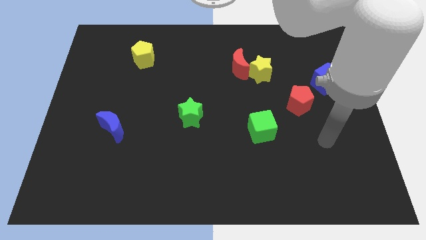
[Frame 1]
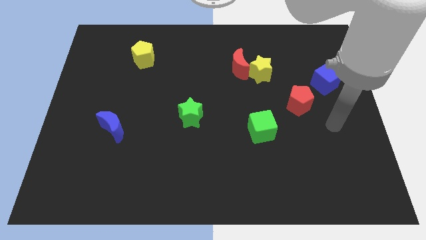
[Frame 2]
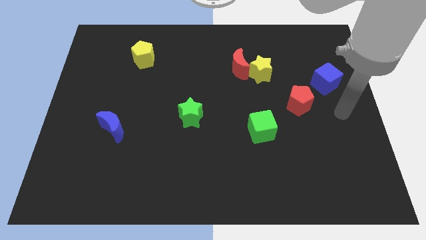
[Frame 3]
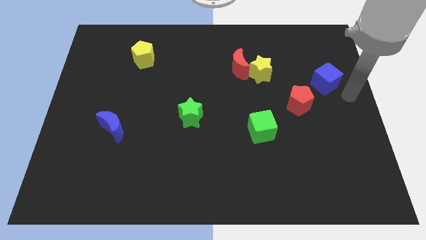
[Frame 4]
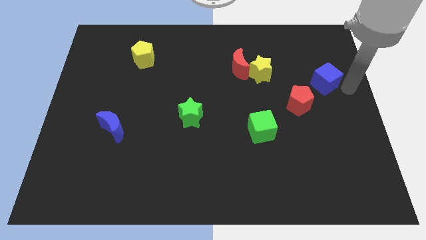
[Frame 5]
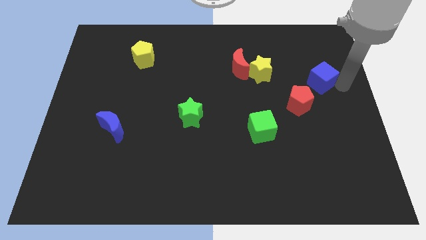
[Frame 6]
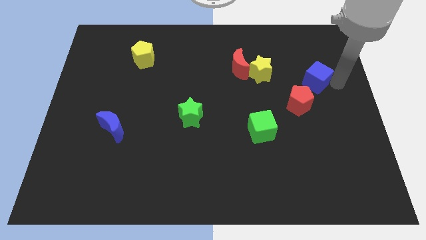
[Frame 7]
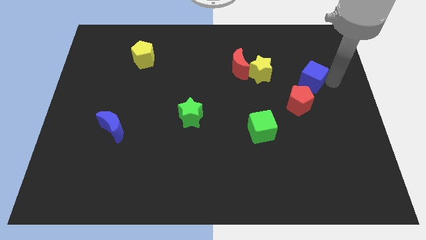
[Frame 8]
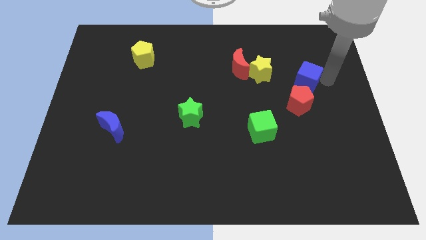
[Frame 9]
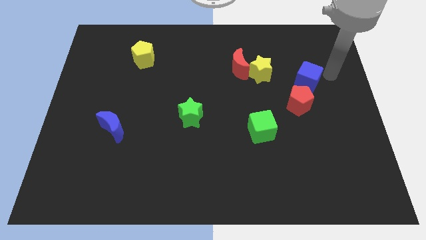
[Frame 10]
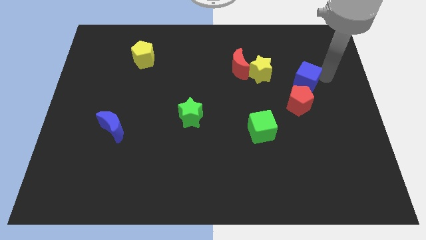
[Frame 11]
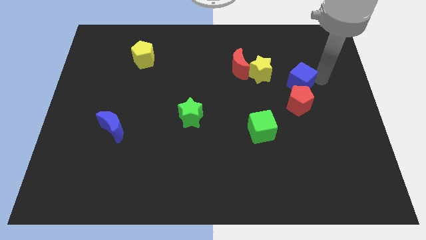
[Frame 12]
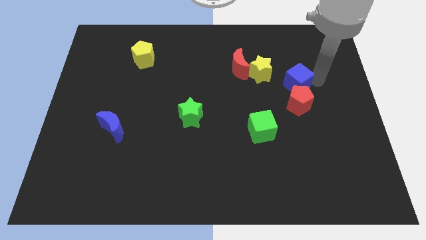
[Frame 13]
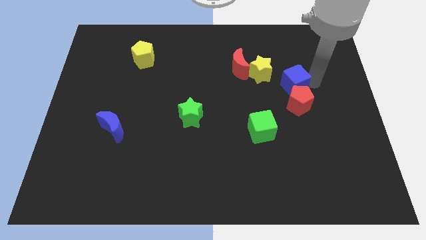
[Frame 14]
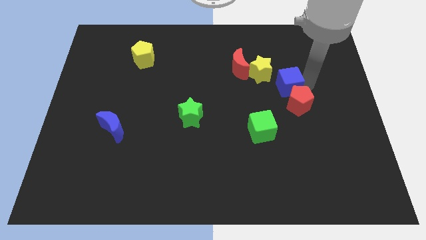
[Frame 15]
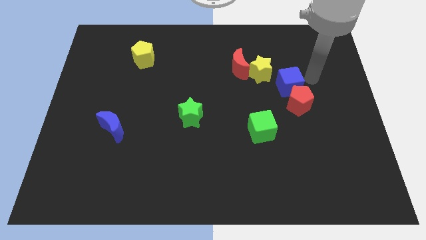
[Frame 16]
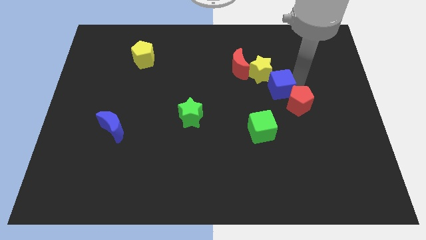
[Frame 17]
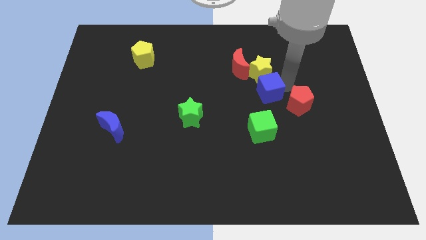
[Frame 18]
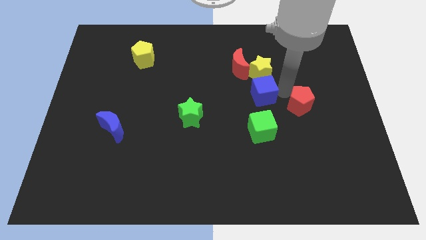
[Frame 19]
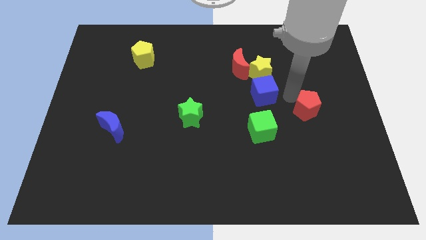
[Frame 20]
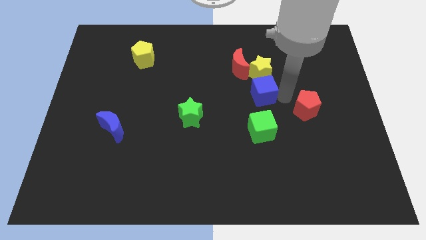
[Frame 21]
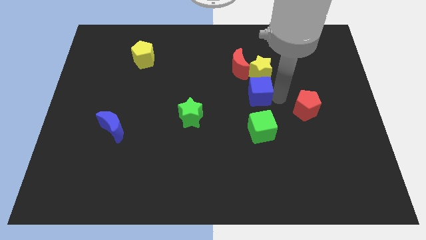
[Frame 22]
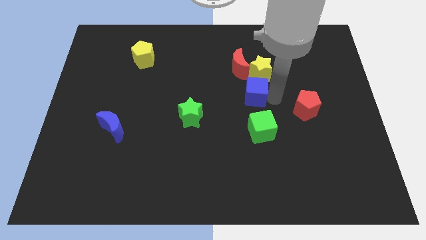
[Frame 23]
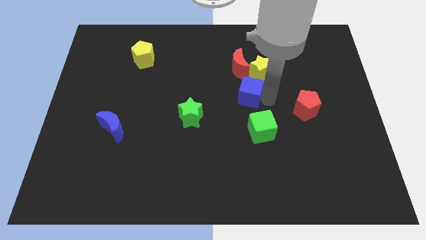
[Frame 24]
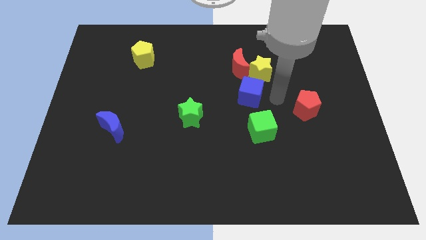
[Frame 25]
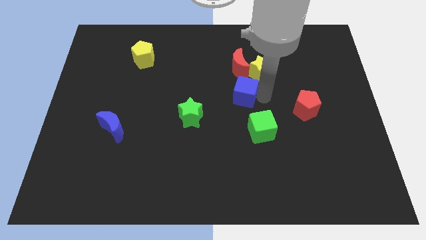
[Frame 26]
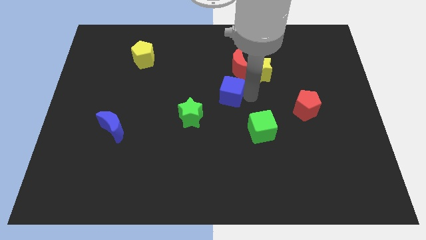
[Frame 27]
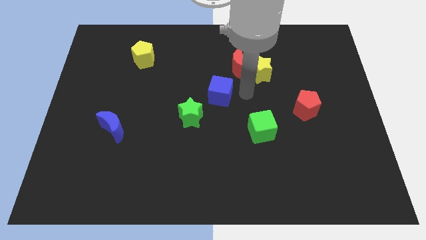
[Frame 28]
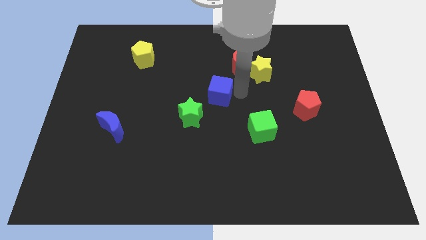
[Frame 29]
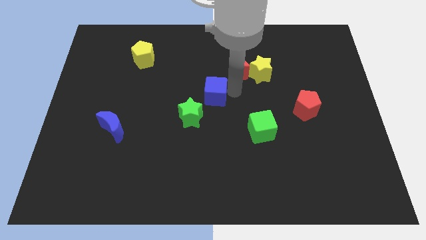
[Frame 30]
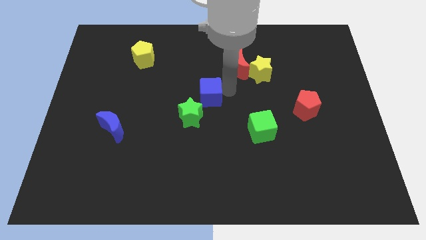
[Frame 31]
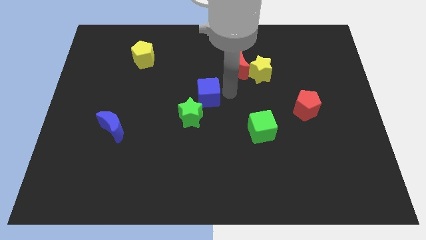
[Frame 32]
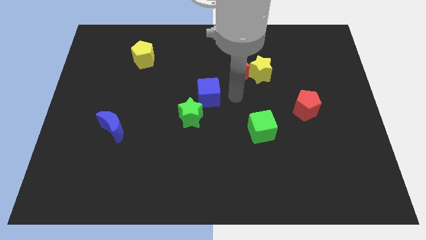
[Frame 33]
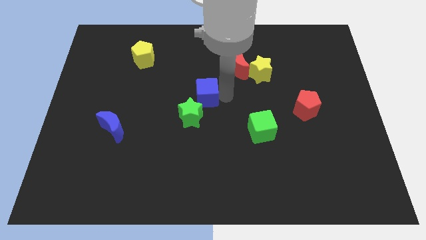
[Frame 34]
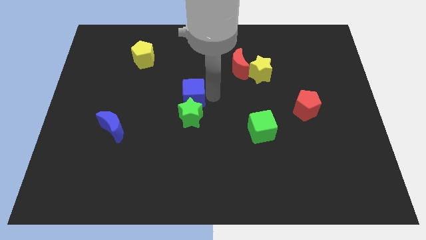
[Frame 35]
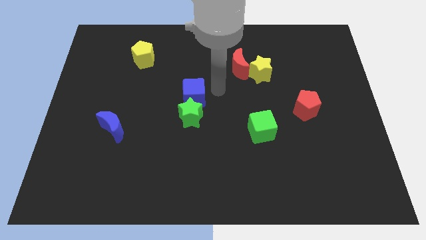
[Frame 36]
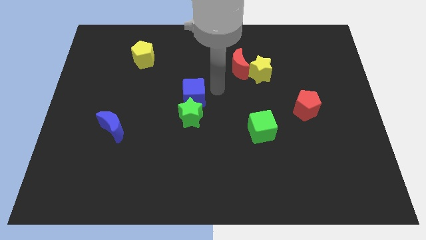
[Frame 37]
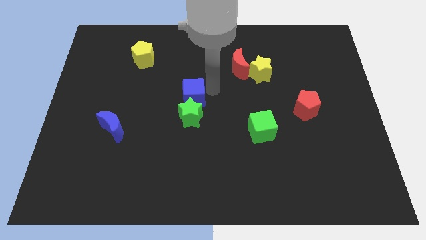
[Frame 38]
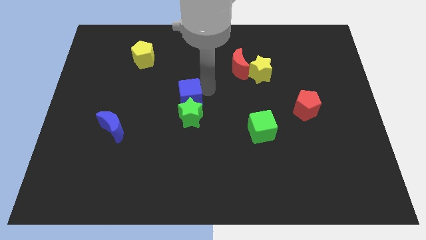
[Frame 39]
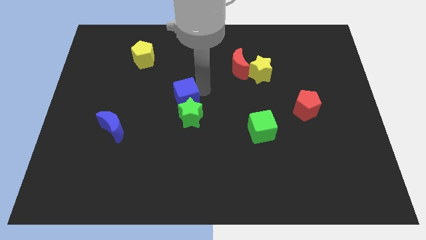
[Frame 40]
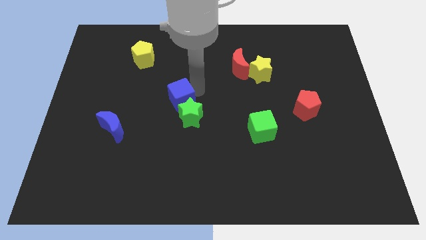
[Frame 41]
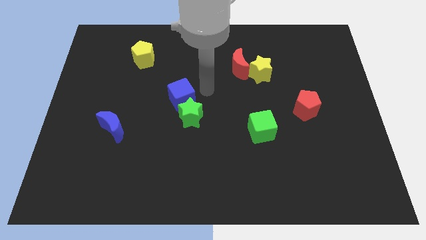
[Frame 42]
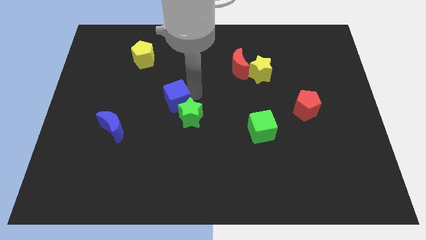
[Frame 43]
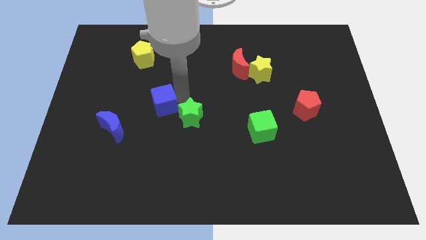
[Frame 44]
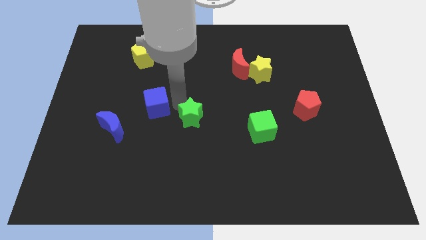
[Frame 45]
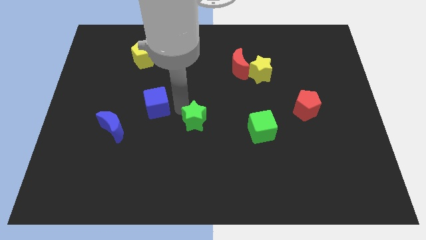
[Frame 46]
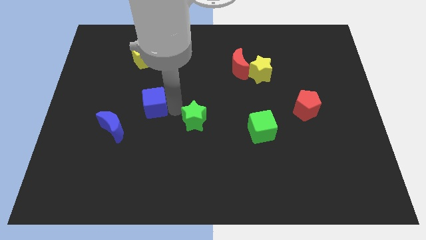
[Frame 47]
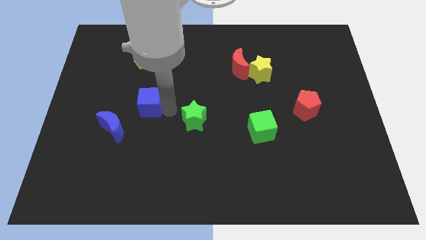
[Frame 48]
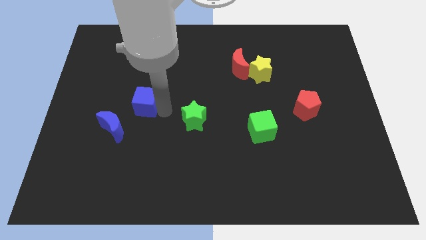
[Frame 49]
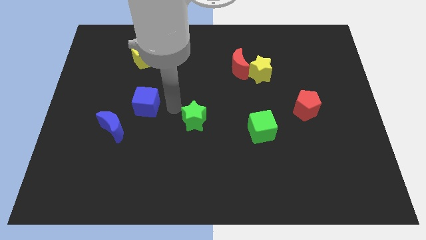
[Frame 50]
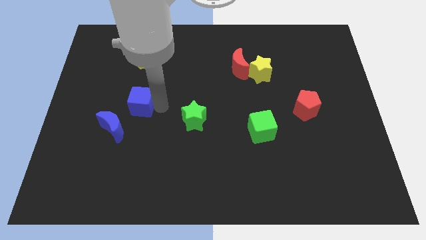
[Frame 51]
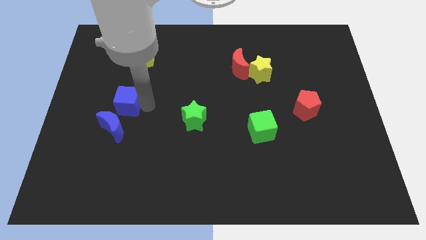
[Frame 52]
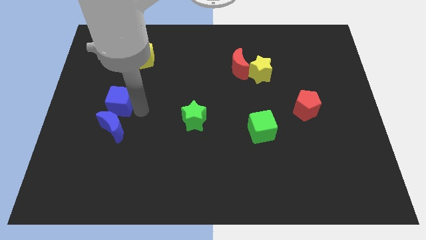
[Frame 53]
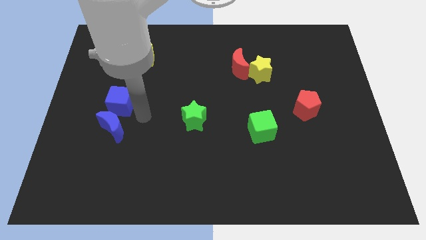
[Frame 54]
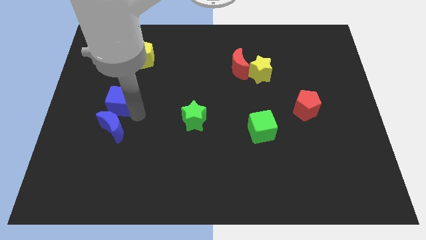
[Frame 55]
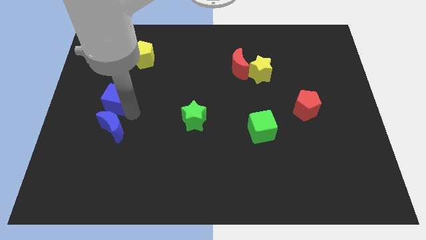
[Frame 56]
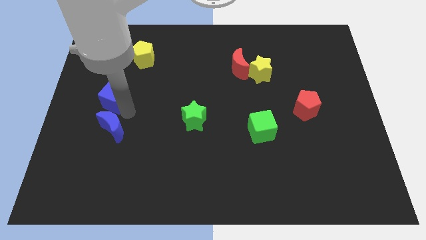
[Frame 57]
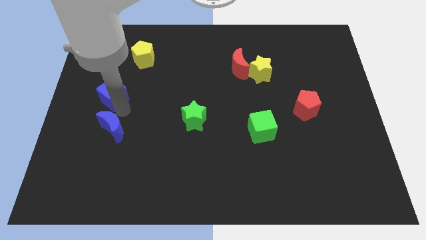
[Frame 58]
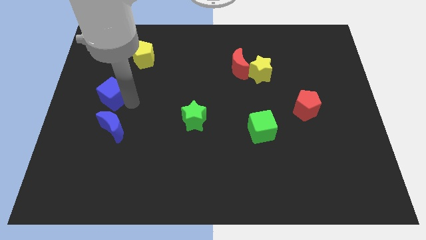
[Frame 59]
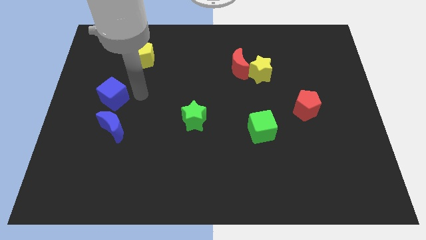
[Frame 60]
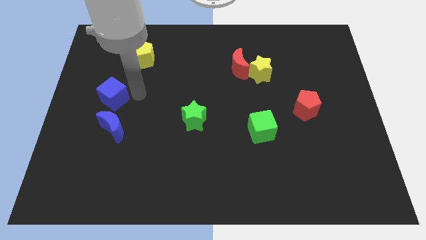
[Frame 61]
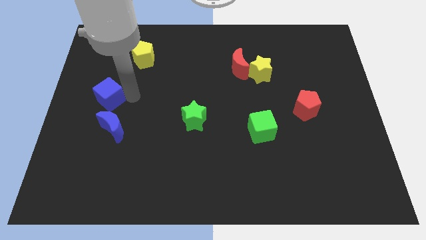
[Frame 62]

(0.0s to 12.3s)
put the blue cube to the left side of the board
